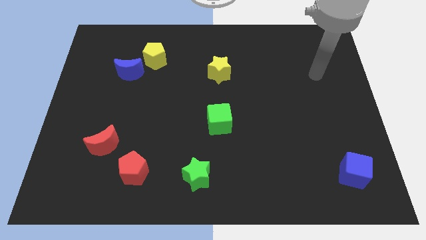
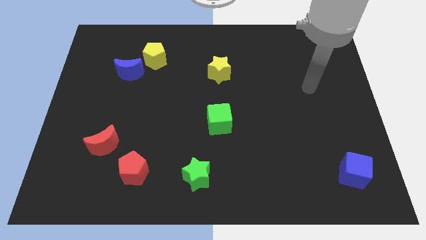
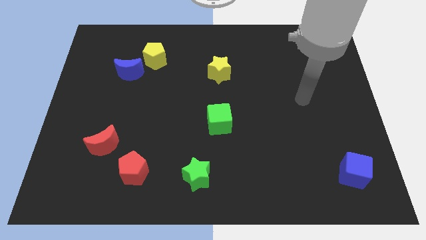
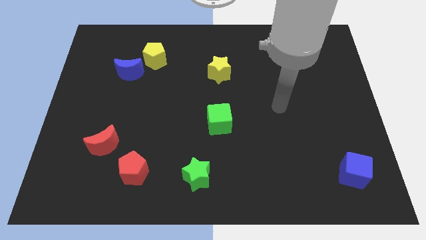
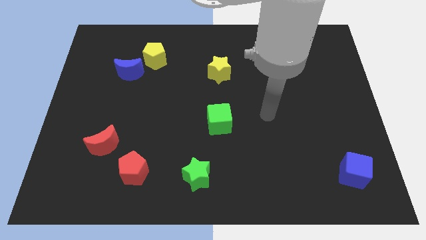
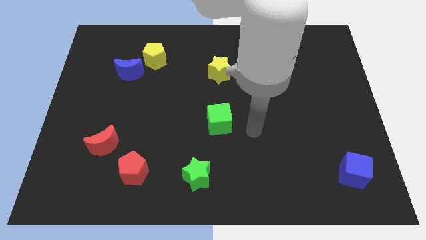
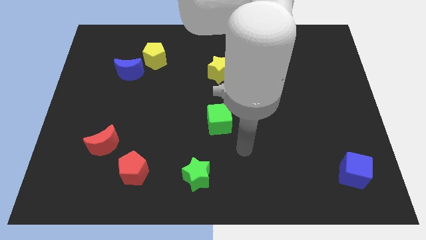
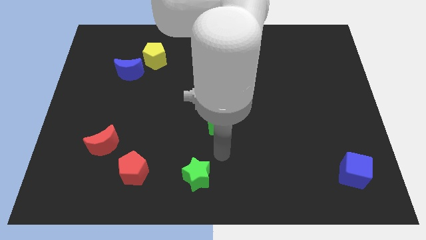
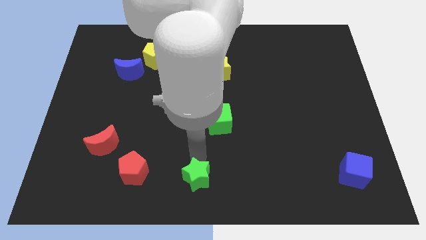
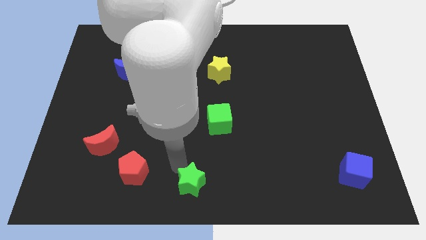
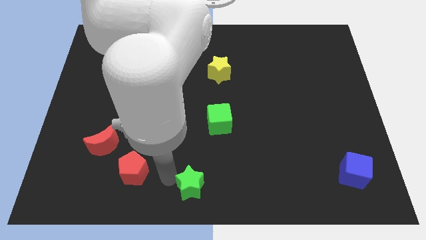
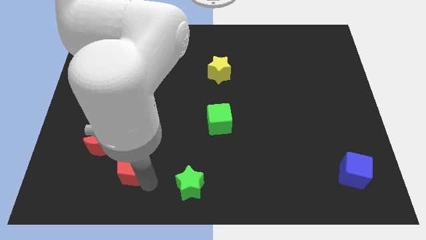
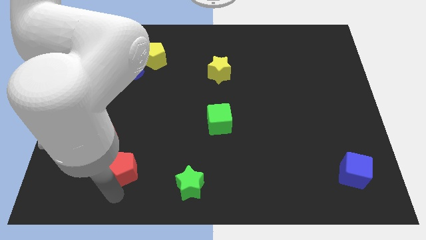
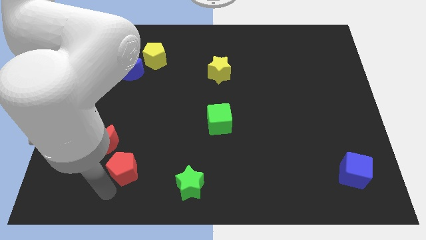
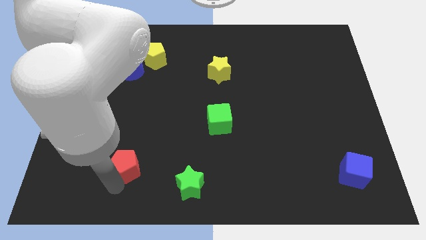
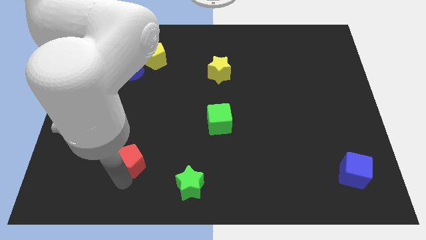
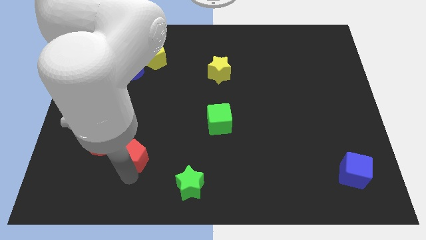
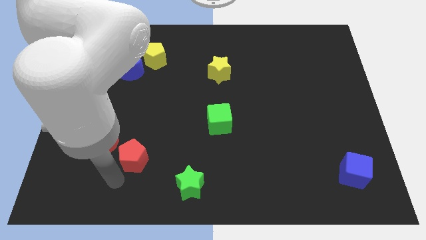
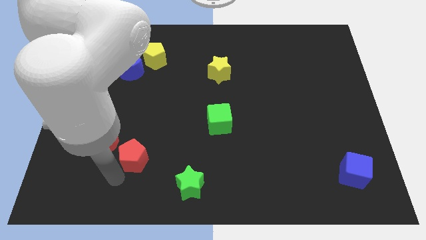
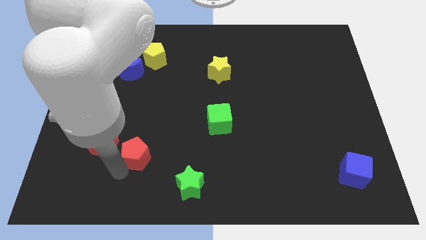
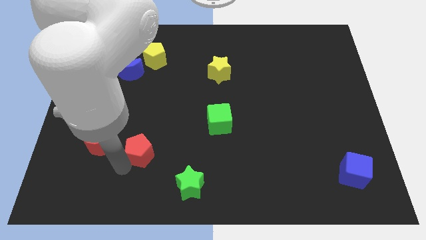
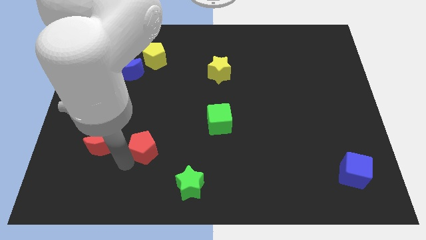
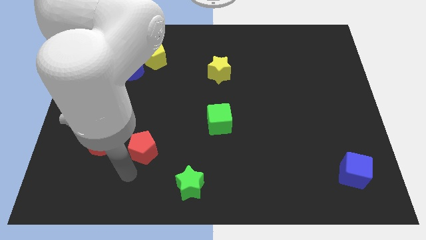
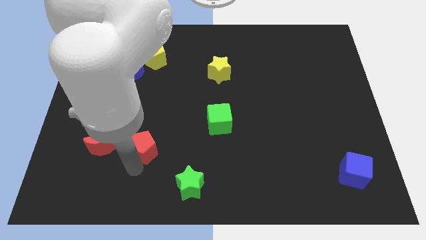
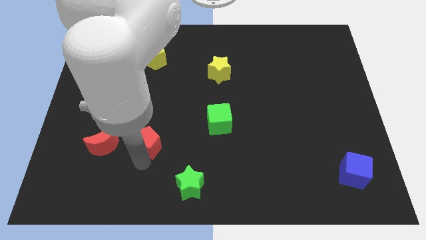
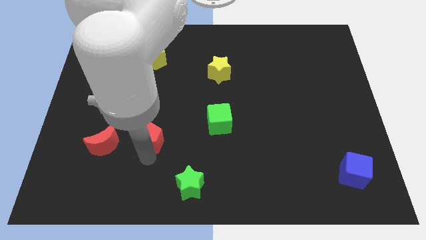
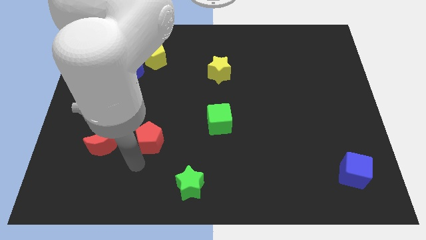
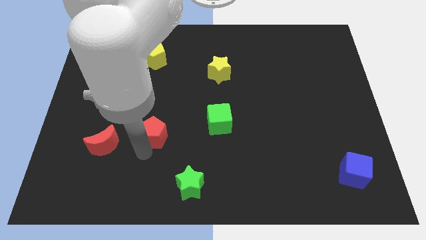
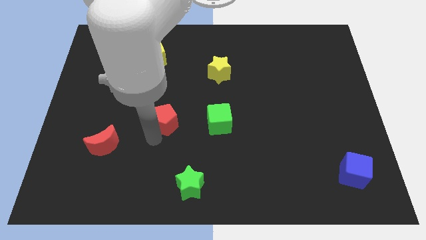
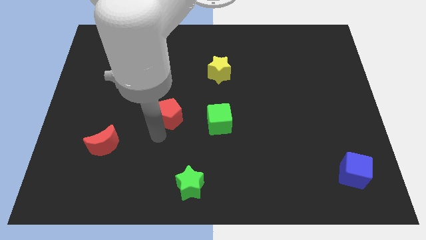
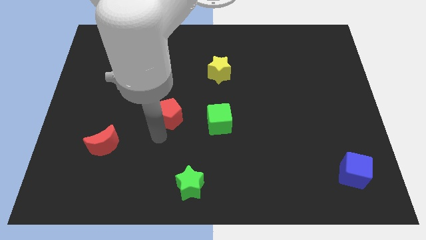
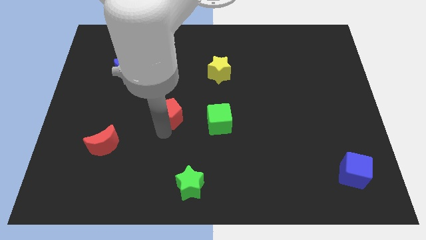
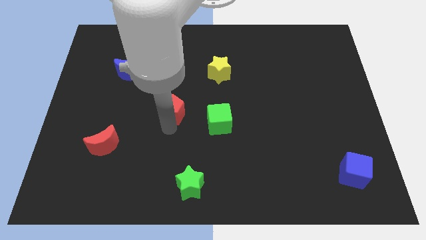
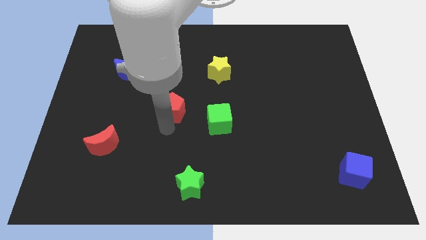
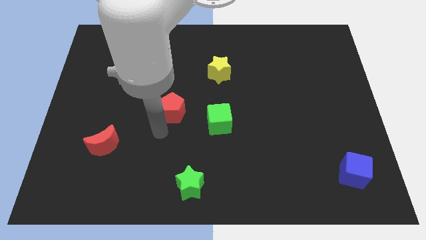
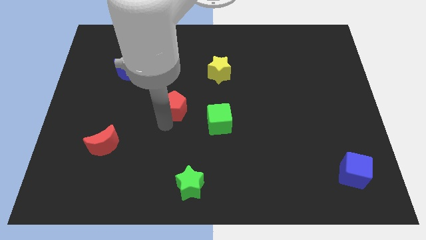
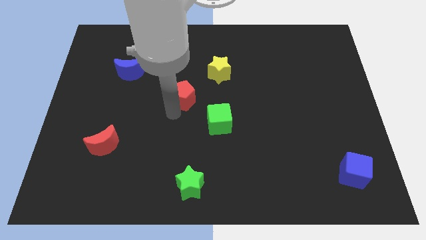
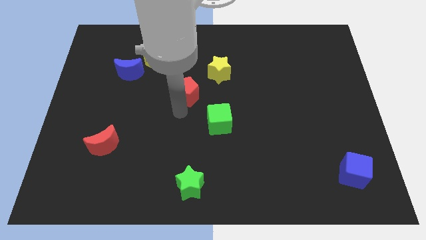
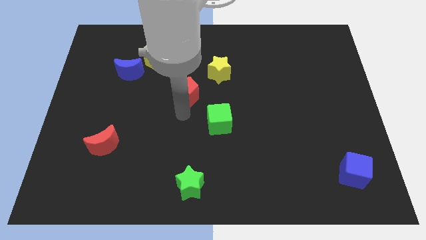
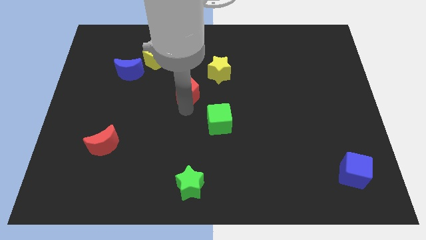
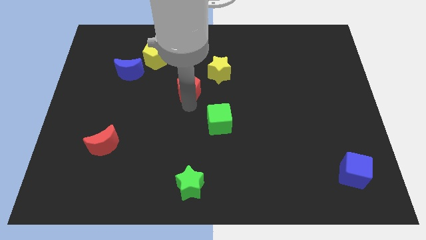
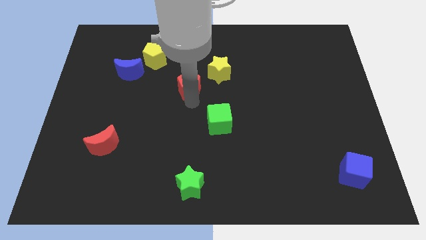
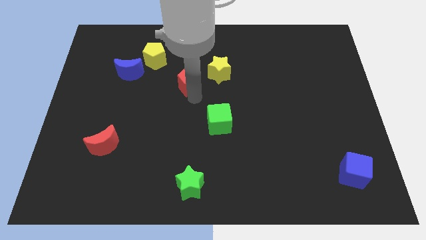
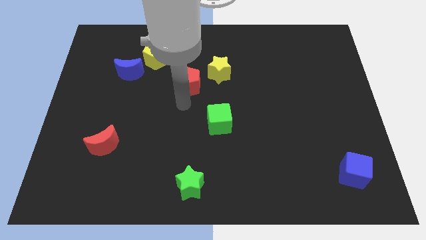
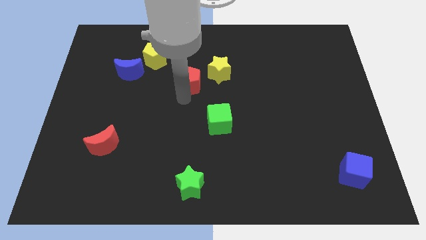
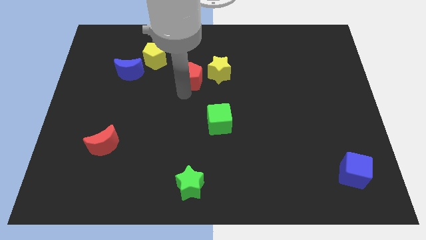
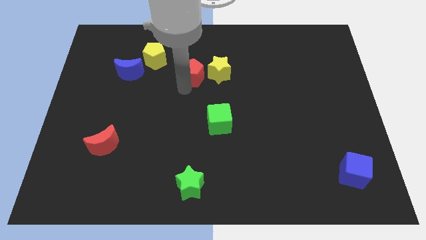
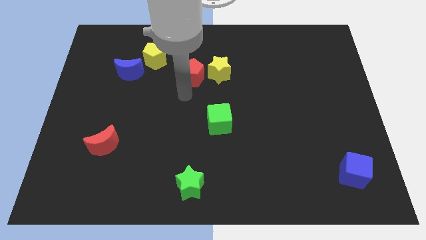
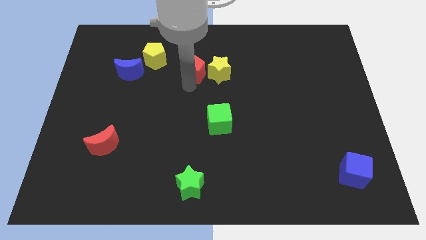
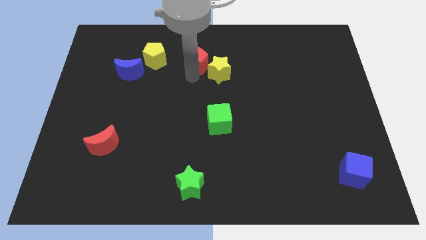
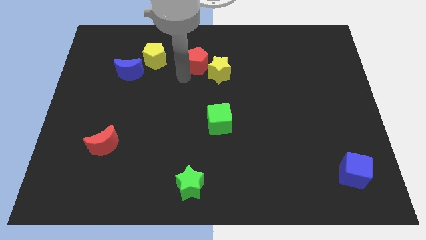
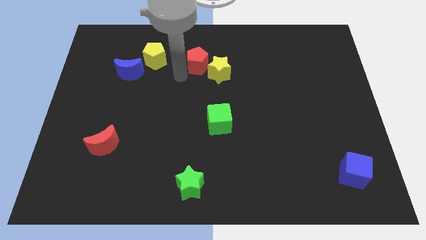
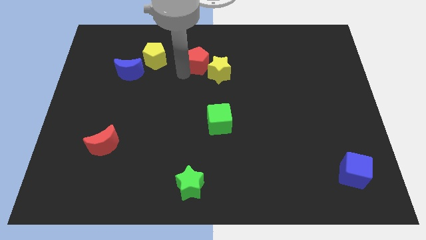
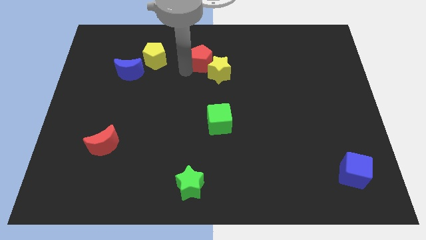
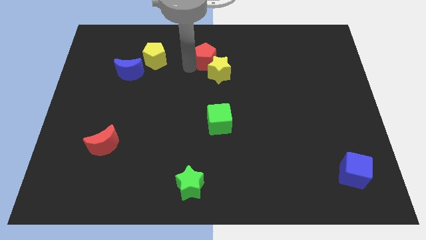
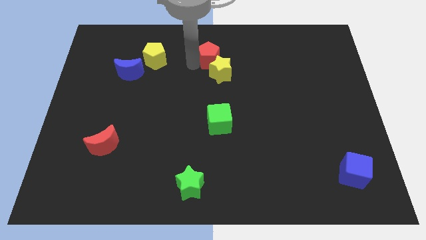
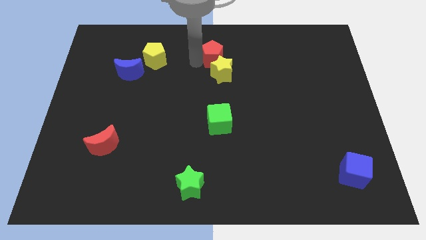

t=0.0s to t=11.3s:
move the red pentagon to the top side
